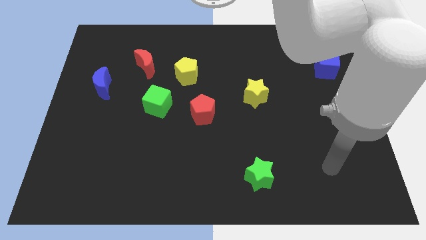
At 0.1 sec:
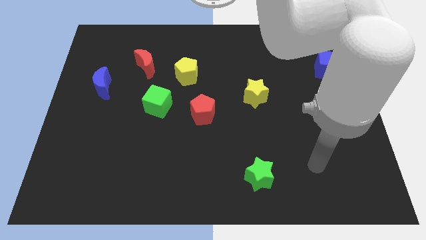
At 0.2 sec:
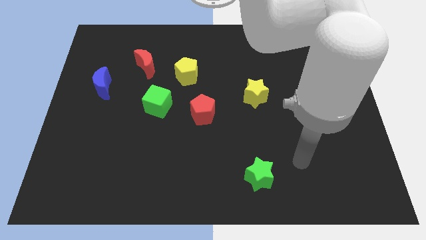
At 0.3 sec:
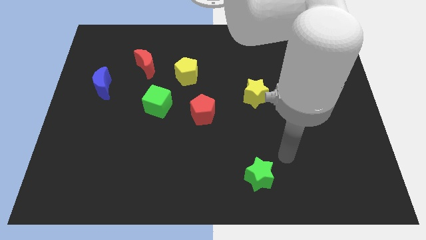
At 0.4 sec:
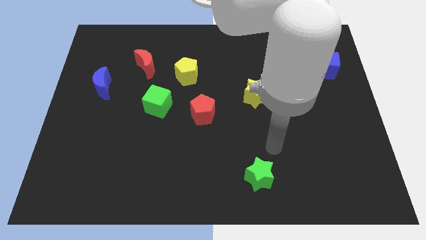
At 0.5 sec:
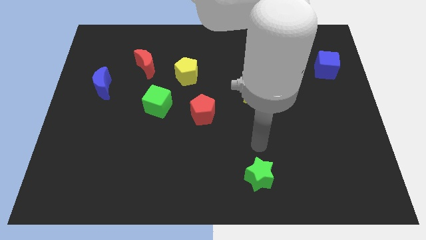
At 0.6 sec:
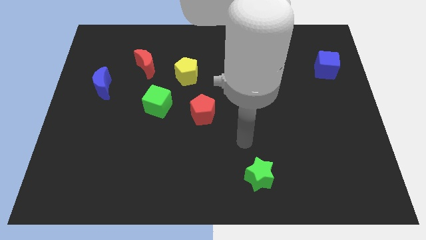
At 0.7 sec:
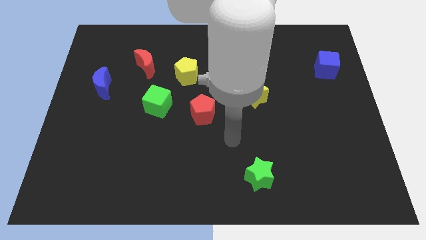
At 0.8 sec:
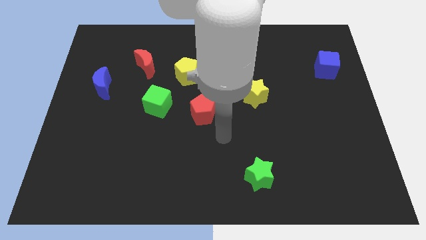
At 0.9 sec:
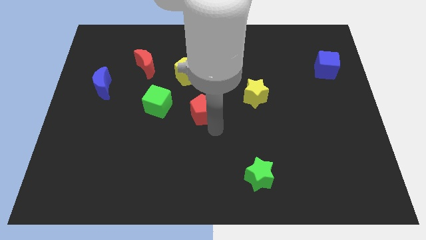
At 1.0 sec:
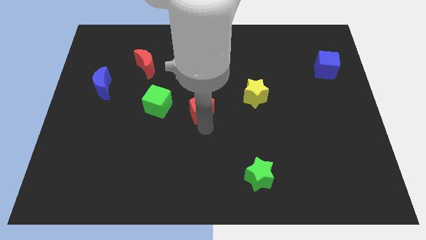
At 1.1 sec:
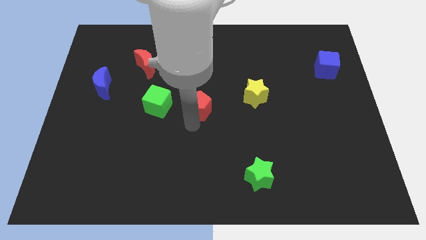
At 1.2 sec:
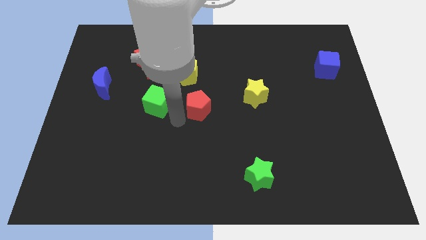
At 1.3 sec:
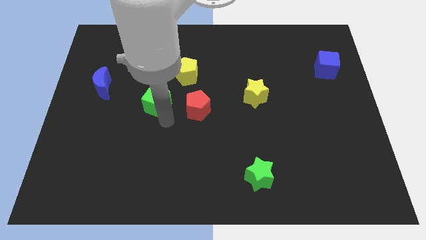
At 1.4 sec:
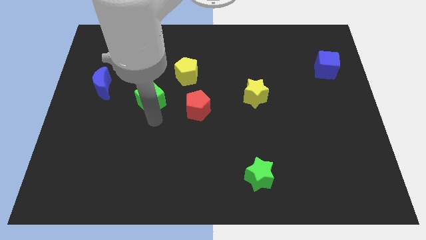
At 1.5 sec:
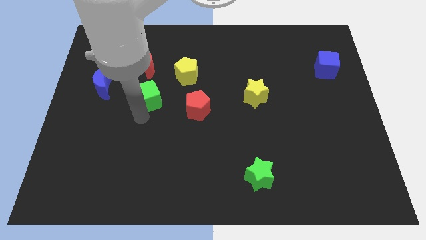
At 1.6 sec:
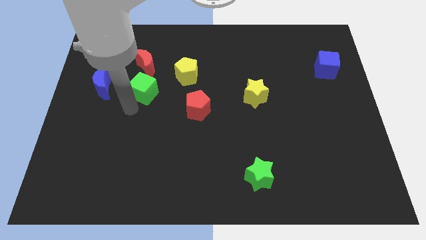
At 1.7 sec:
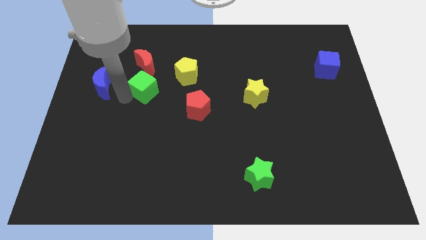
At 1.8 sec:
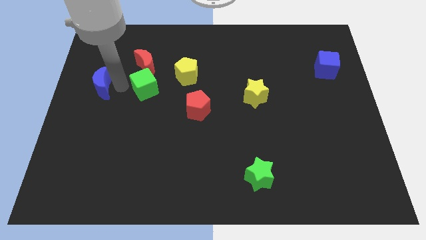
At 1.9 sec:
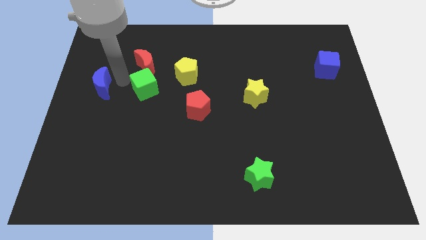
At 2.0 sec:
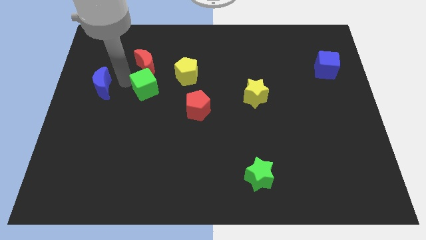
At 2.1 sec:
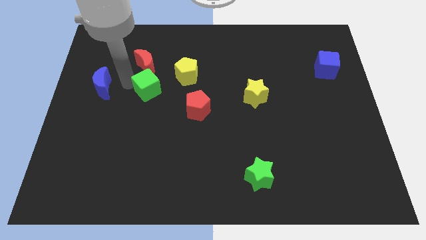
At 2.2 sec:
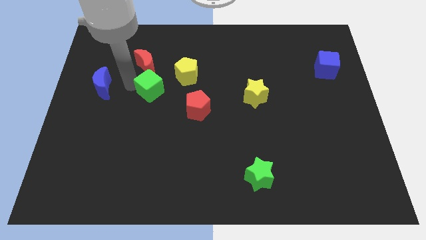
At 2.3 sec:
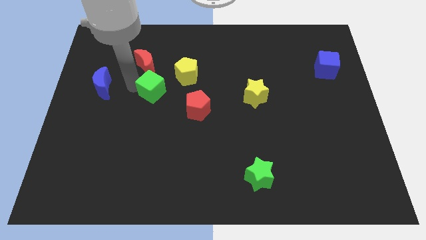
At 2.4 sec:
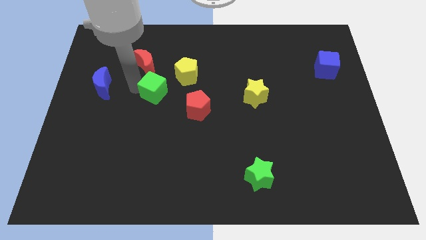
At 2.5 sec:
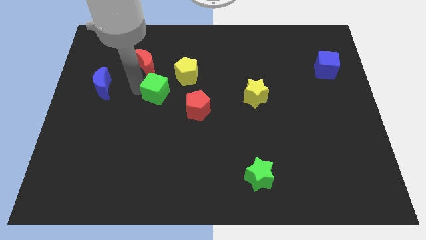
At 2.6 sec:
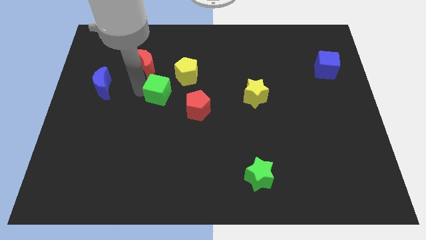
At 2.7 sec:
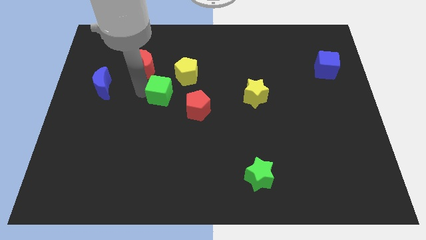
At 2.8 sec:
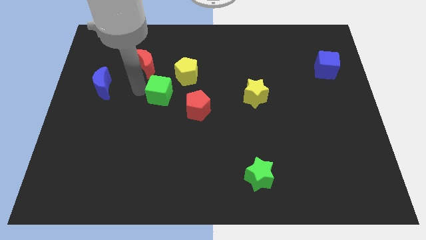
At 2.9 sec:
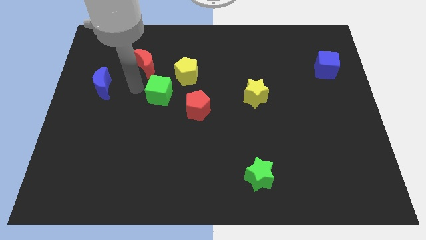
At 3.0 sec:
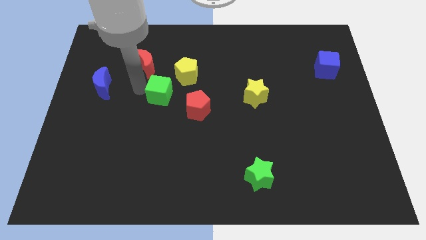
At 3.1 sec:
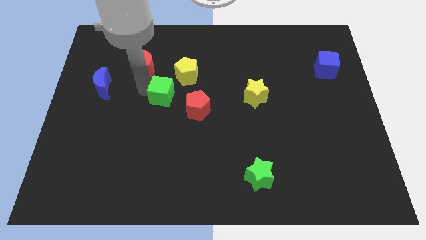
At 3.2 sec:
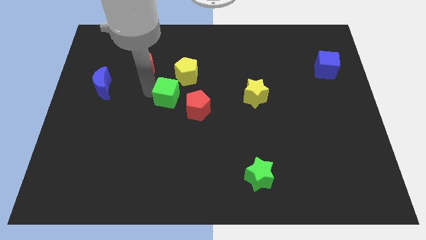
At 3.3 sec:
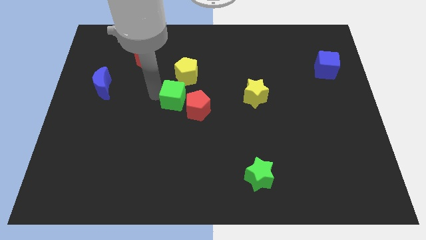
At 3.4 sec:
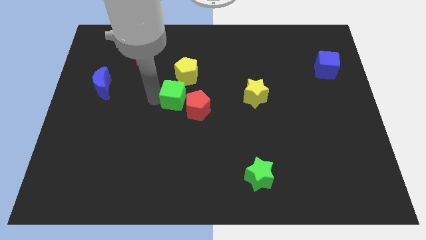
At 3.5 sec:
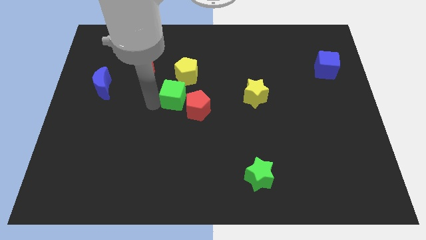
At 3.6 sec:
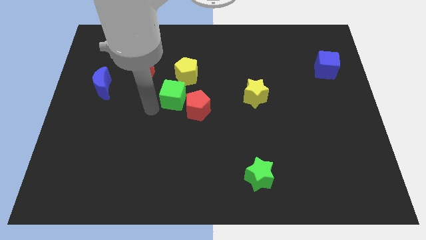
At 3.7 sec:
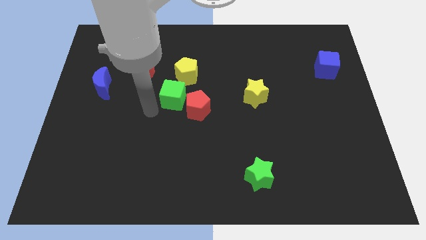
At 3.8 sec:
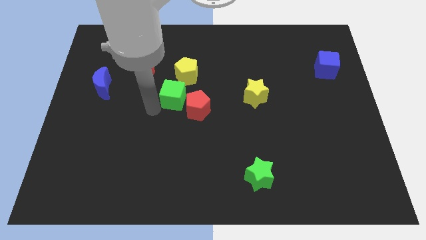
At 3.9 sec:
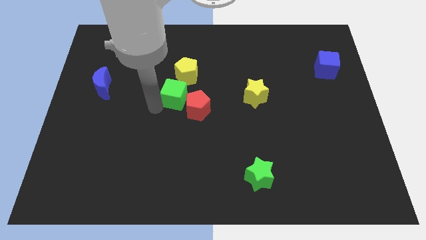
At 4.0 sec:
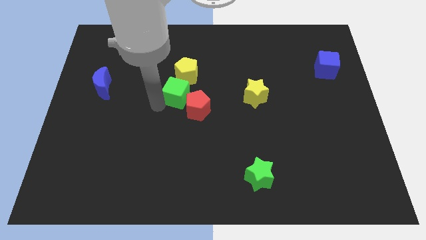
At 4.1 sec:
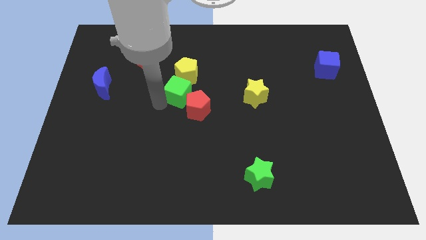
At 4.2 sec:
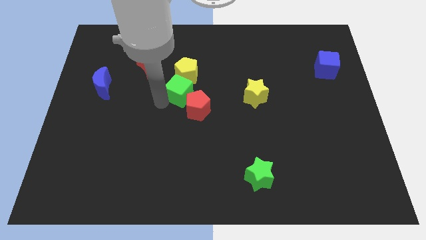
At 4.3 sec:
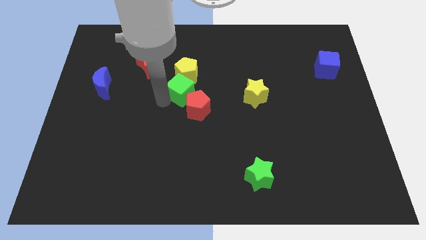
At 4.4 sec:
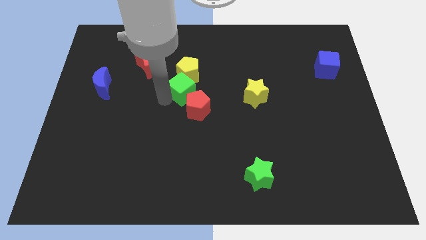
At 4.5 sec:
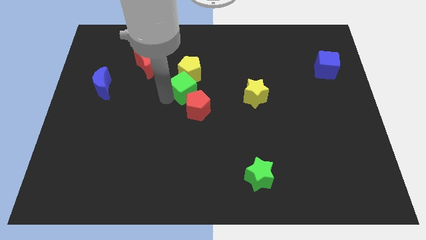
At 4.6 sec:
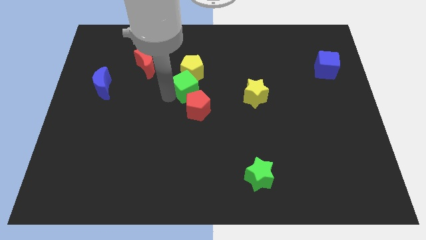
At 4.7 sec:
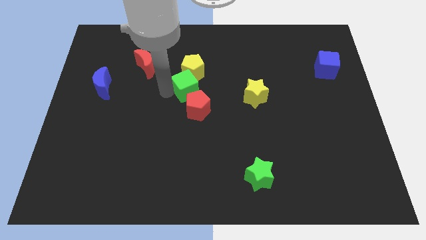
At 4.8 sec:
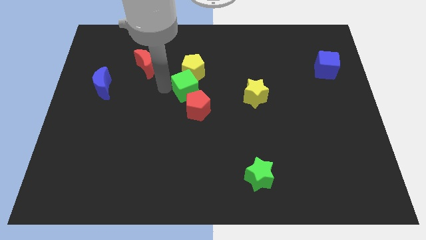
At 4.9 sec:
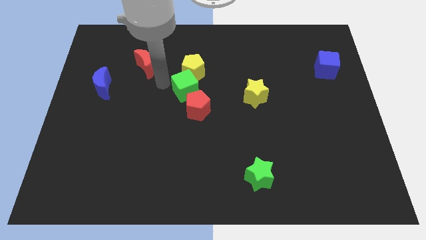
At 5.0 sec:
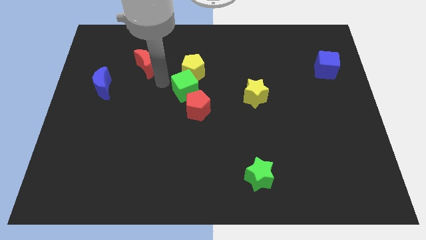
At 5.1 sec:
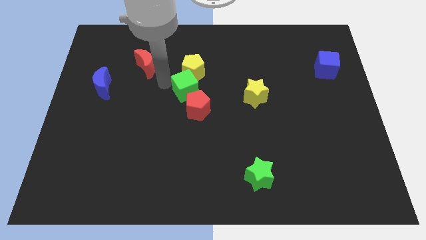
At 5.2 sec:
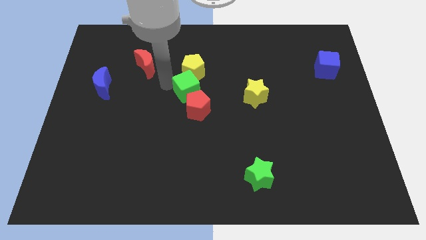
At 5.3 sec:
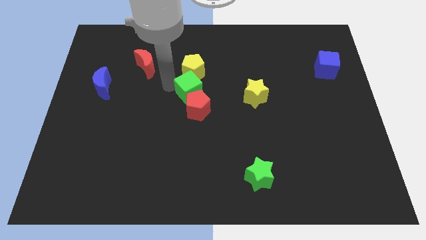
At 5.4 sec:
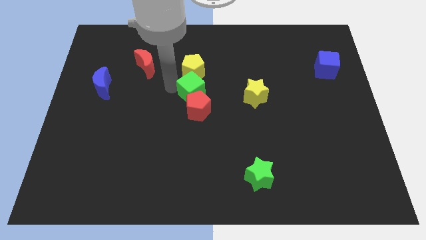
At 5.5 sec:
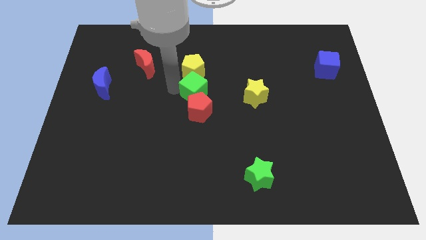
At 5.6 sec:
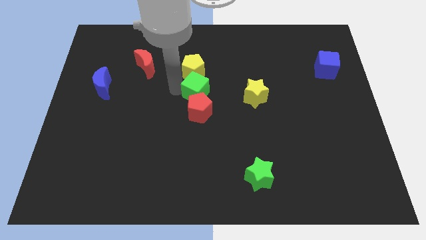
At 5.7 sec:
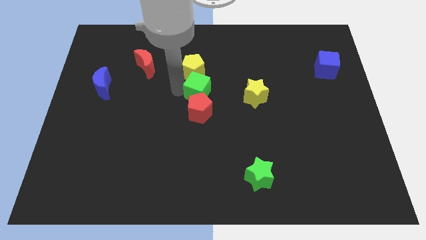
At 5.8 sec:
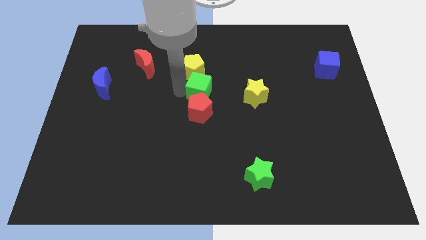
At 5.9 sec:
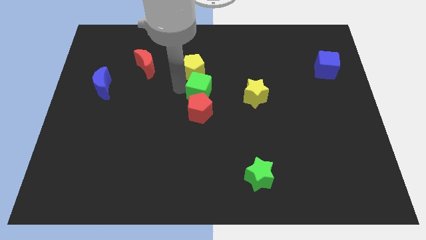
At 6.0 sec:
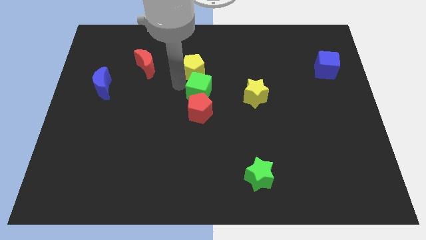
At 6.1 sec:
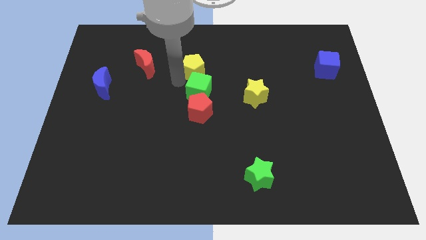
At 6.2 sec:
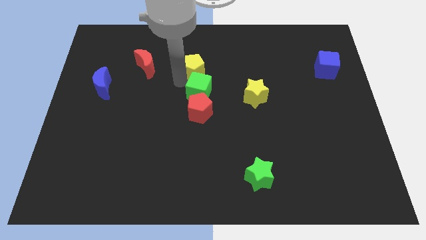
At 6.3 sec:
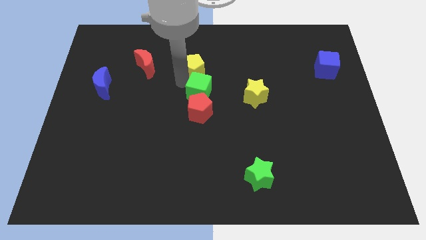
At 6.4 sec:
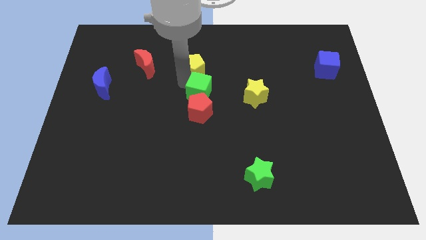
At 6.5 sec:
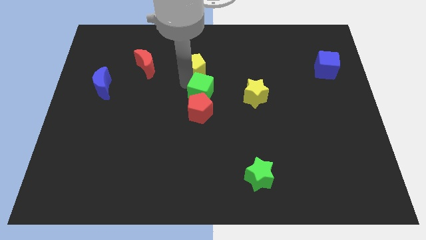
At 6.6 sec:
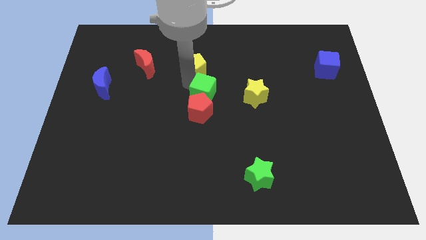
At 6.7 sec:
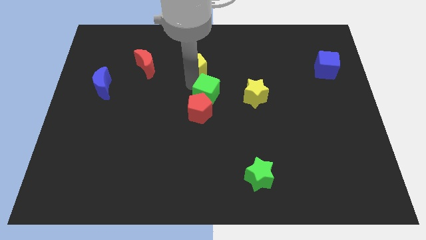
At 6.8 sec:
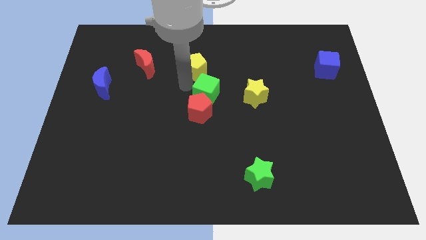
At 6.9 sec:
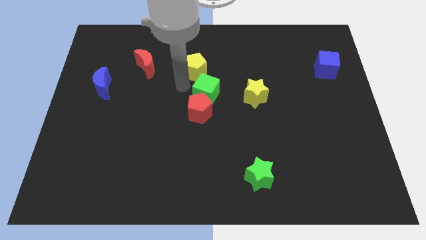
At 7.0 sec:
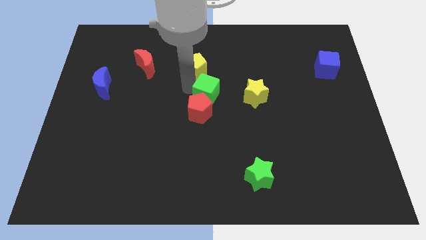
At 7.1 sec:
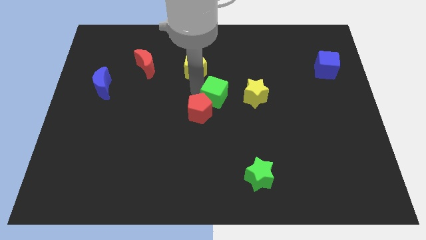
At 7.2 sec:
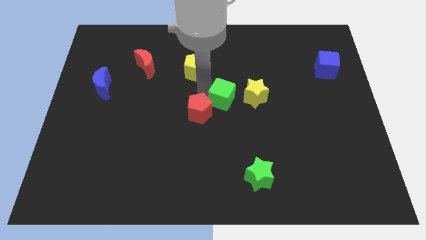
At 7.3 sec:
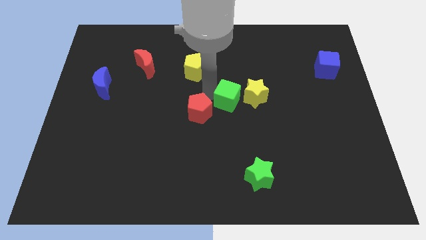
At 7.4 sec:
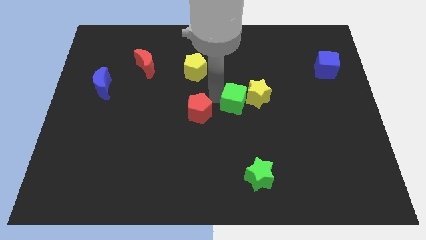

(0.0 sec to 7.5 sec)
put the green cube to the yellow star
